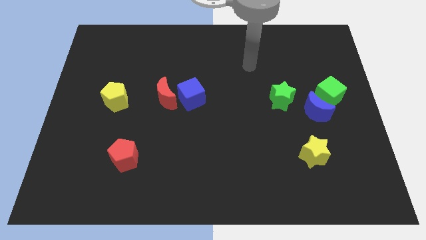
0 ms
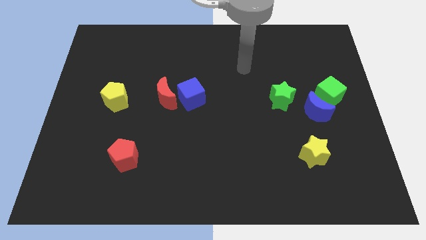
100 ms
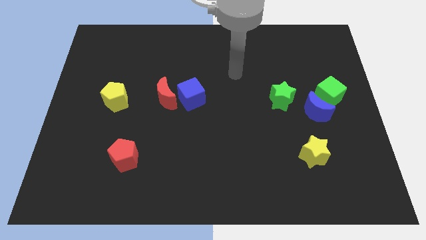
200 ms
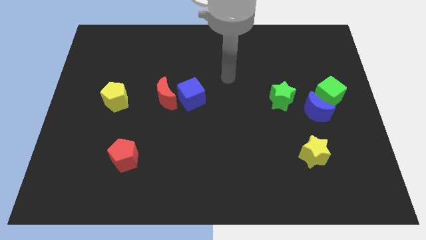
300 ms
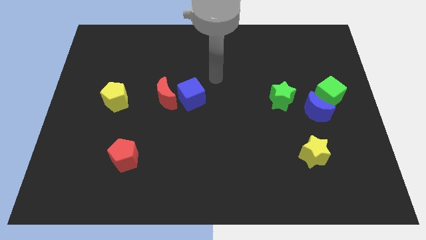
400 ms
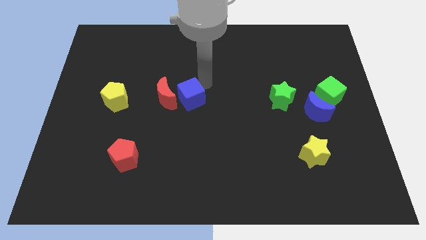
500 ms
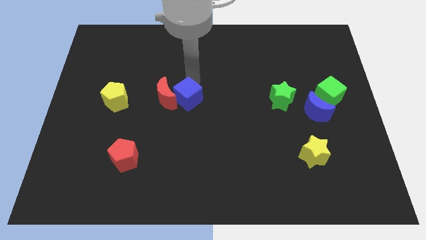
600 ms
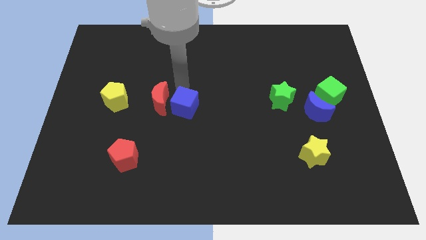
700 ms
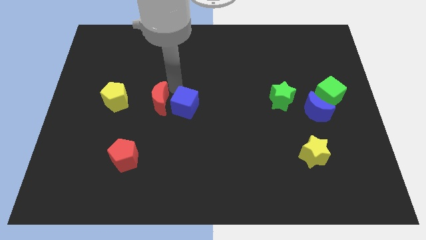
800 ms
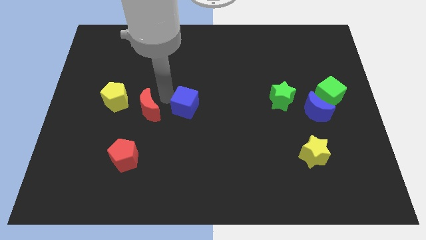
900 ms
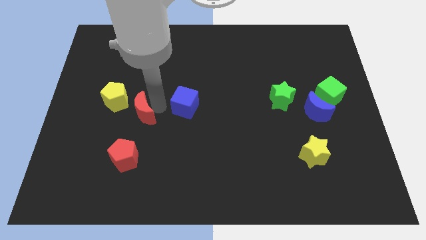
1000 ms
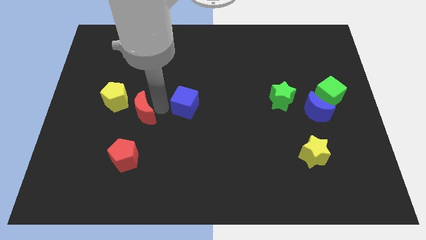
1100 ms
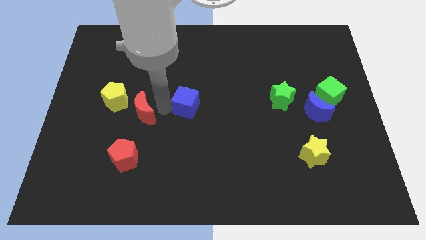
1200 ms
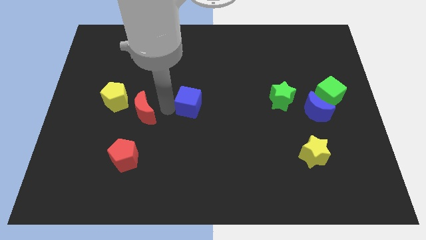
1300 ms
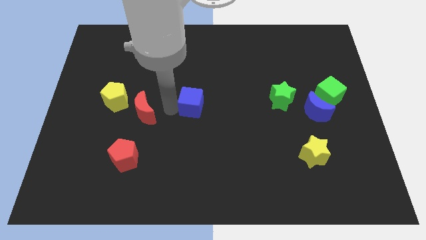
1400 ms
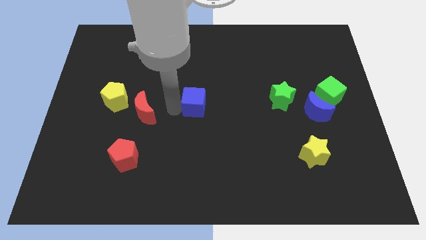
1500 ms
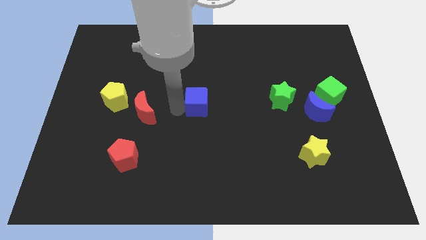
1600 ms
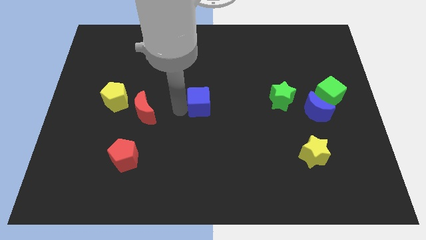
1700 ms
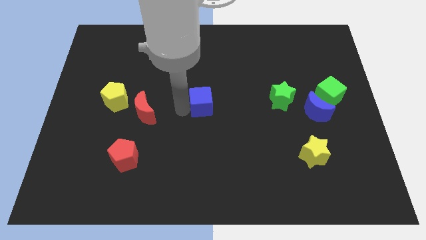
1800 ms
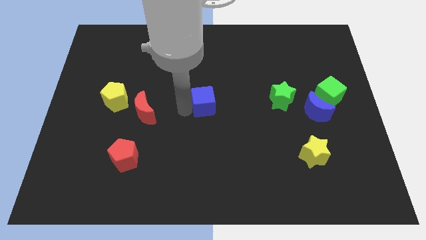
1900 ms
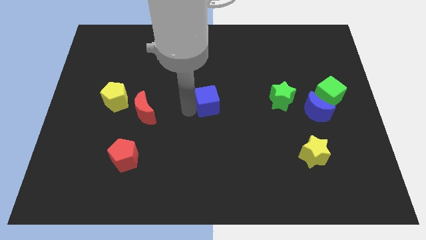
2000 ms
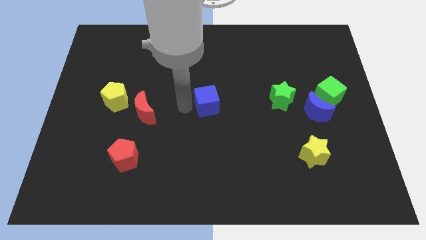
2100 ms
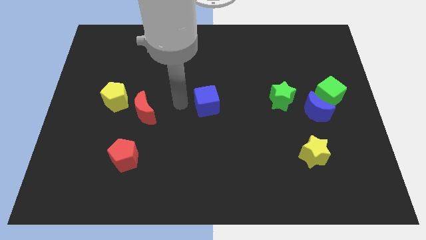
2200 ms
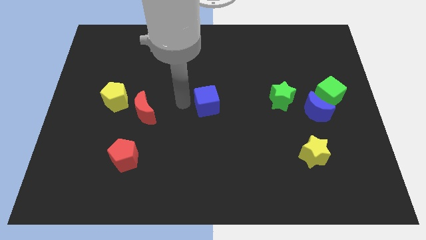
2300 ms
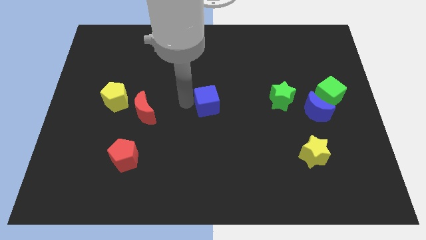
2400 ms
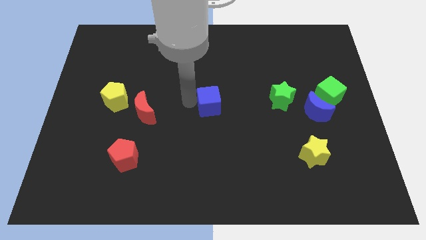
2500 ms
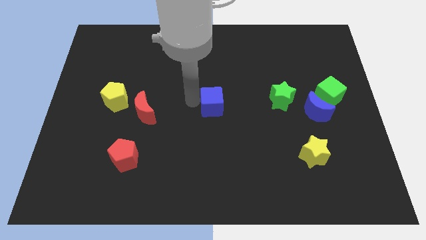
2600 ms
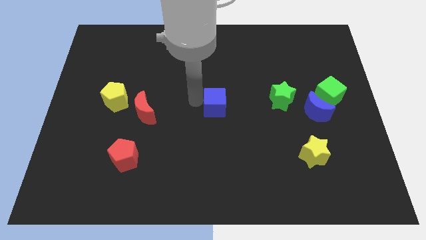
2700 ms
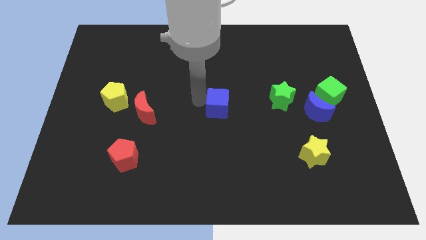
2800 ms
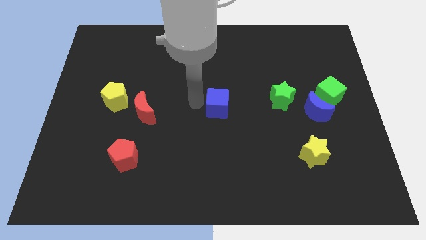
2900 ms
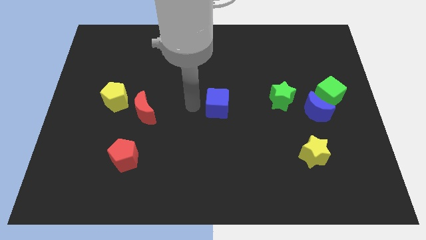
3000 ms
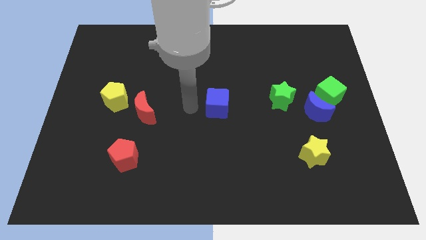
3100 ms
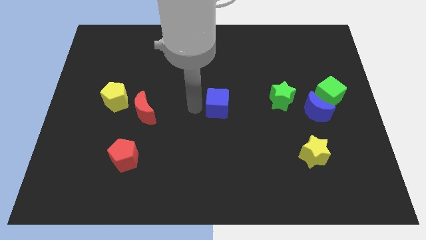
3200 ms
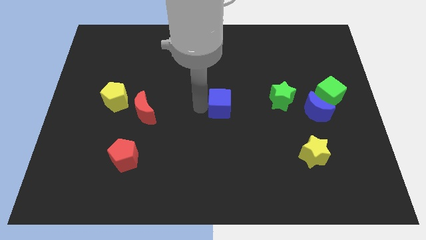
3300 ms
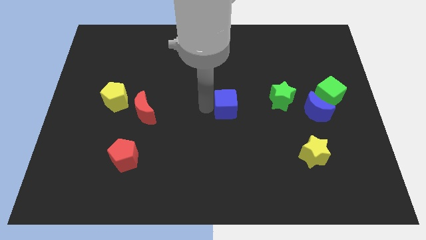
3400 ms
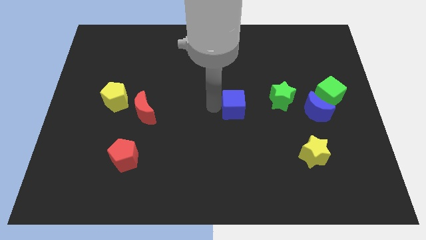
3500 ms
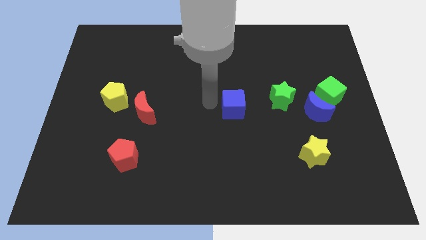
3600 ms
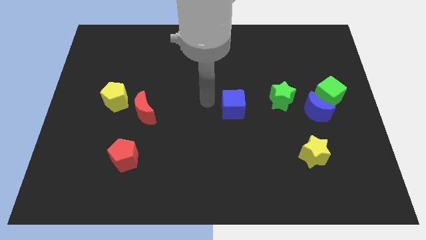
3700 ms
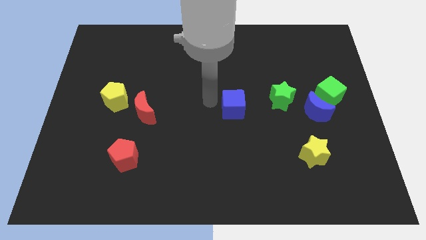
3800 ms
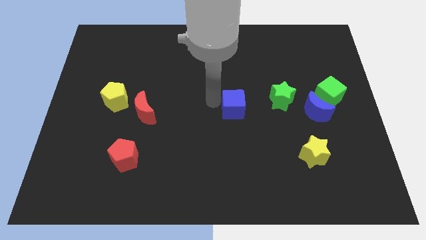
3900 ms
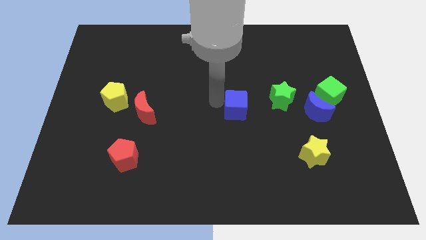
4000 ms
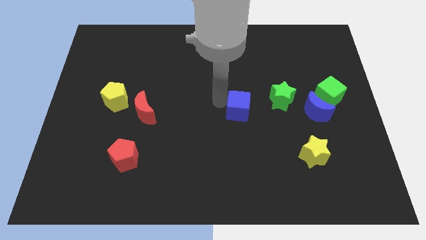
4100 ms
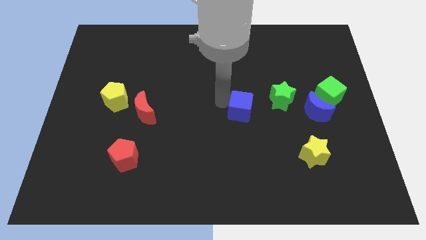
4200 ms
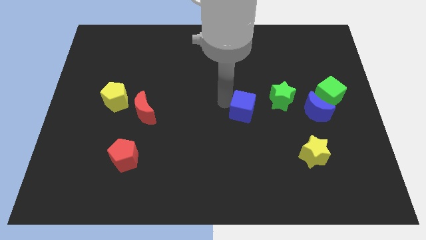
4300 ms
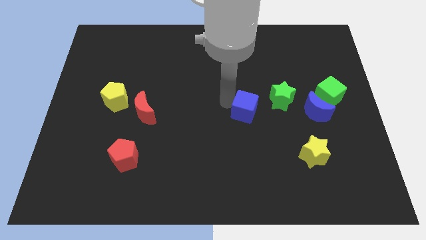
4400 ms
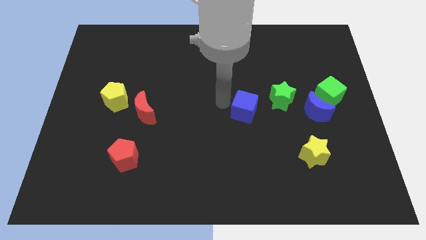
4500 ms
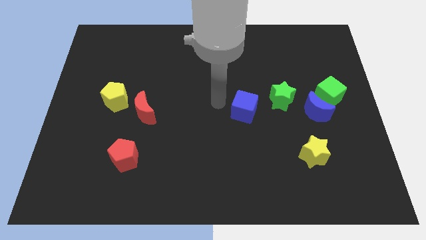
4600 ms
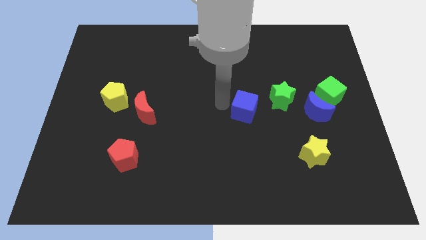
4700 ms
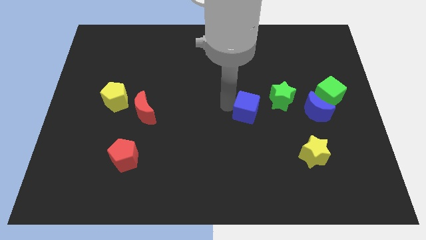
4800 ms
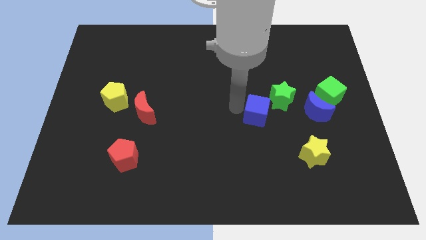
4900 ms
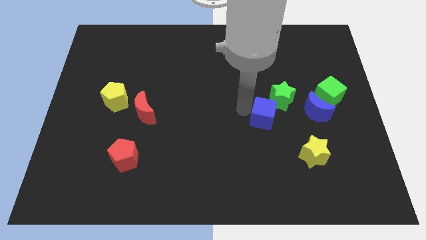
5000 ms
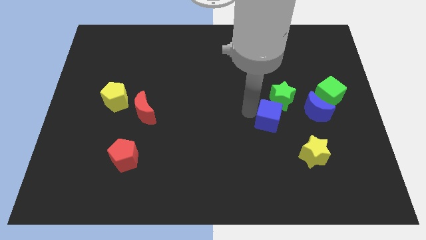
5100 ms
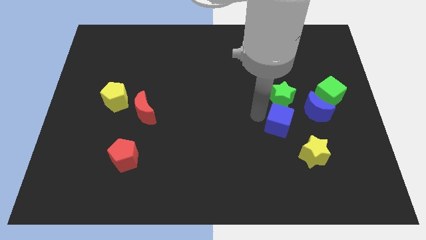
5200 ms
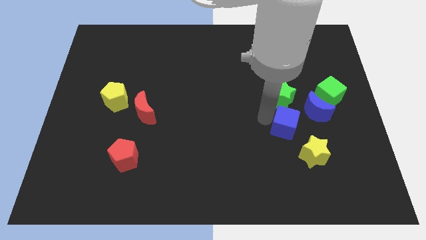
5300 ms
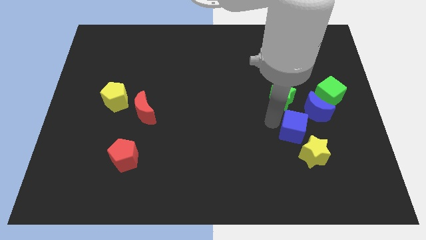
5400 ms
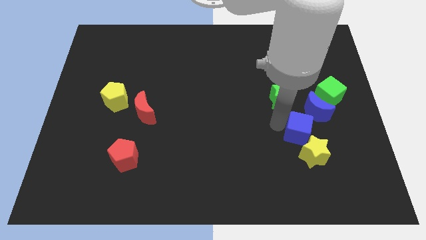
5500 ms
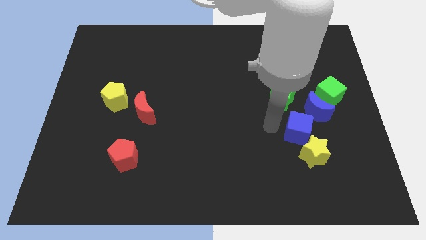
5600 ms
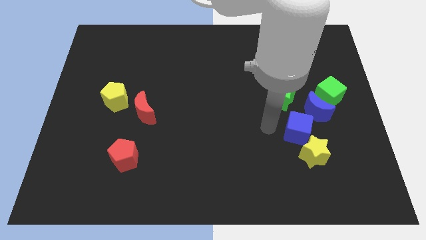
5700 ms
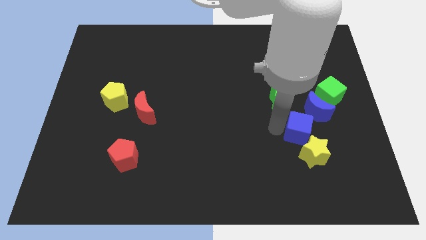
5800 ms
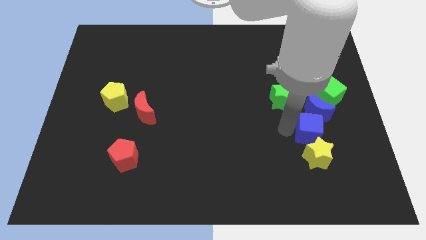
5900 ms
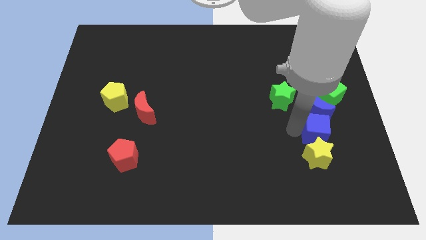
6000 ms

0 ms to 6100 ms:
push the blue cube diagonally up and to the right of the yellow star

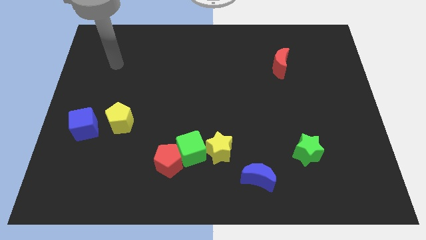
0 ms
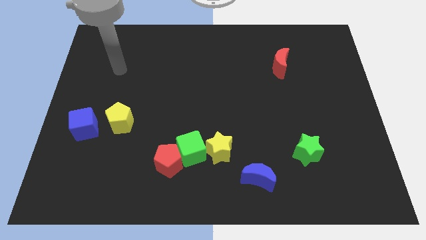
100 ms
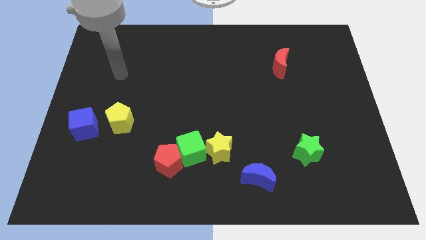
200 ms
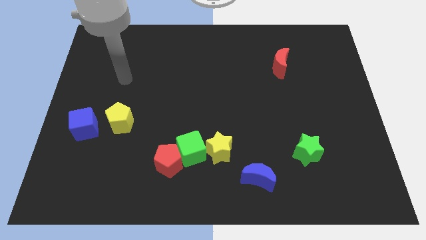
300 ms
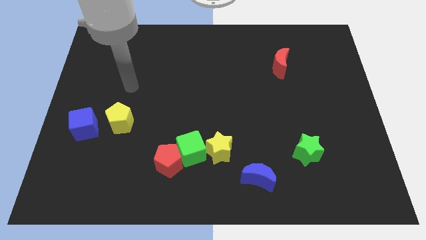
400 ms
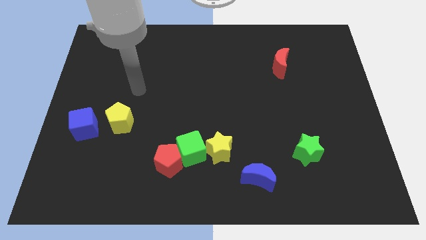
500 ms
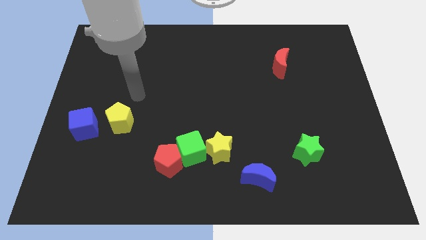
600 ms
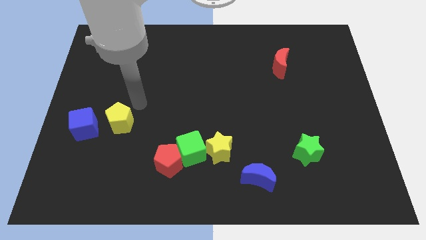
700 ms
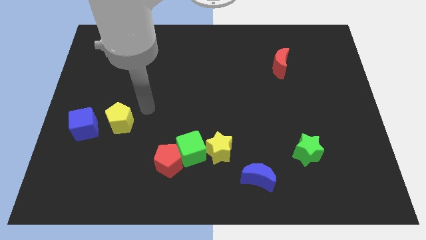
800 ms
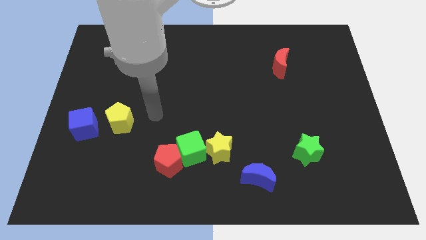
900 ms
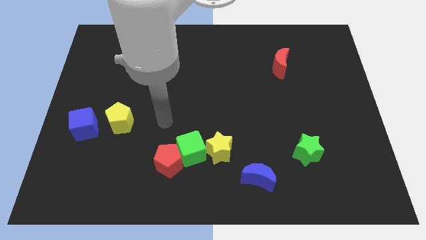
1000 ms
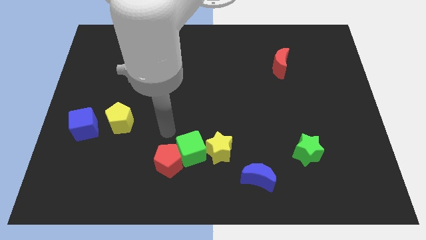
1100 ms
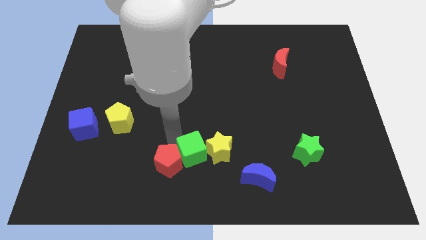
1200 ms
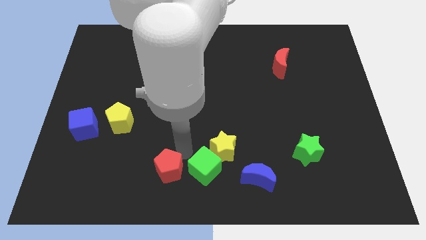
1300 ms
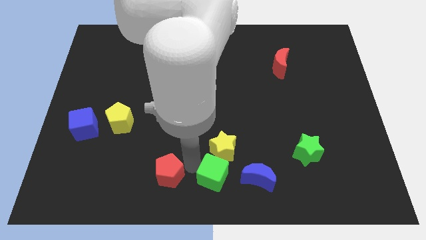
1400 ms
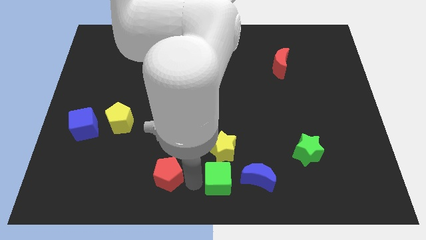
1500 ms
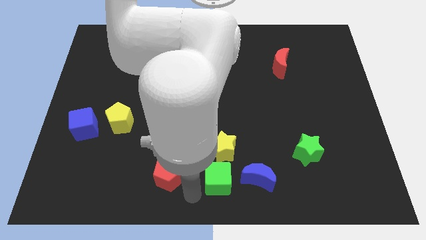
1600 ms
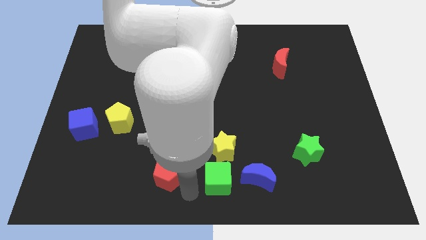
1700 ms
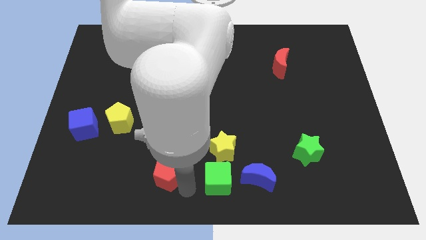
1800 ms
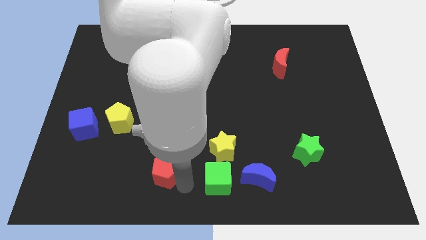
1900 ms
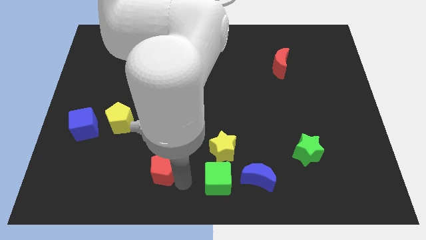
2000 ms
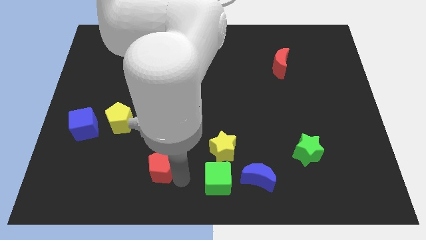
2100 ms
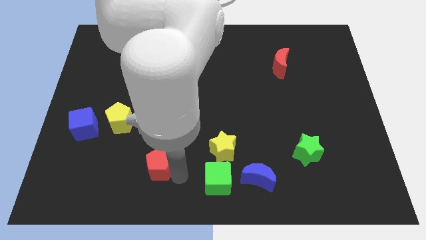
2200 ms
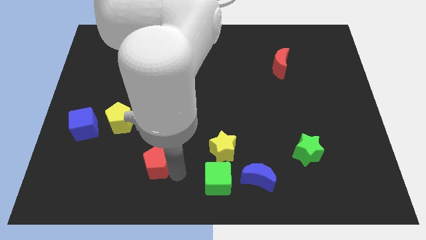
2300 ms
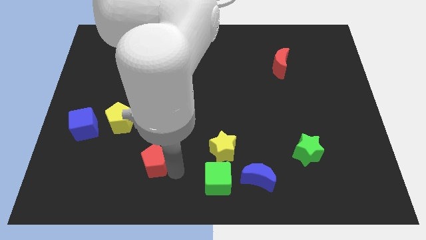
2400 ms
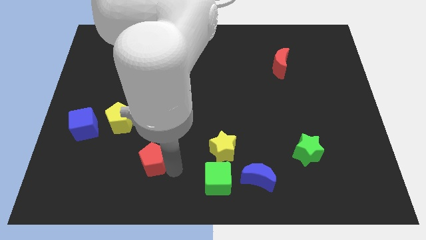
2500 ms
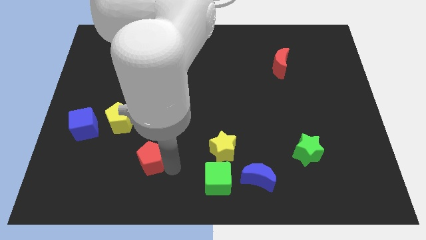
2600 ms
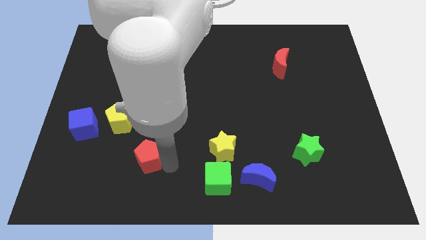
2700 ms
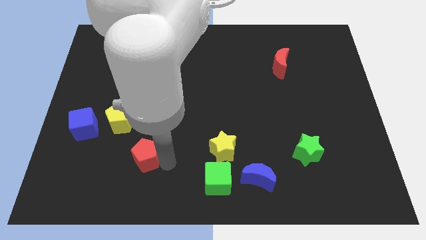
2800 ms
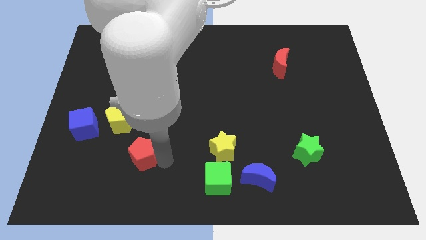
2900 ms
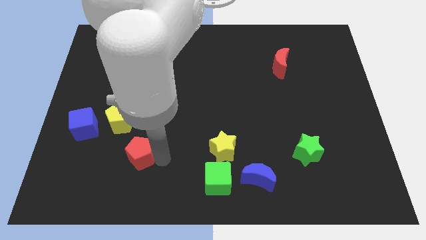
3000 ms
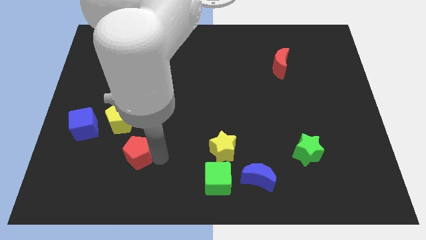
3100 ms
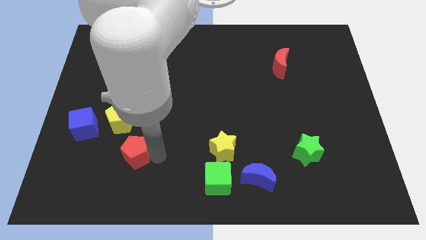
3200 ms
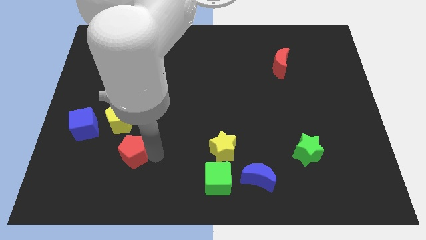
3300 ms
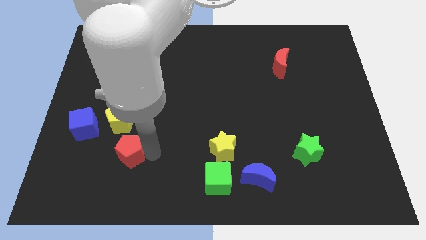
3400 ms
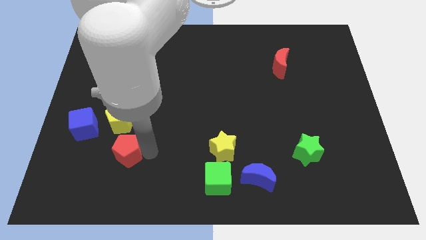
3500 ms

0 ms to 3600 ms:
put the red pentagon to the bottom right of the blue cube
